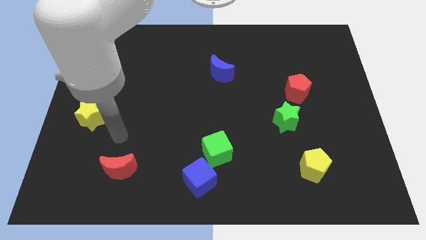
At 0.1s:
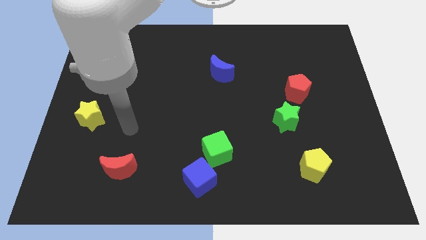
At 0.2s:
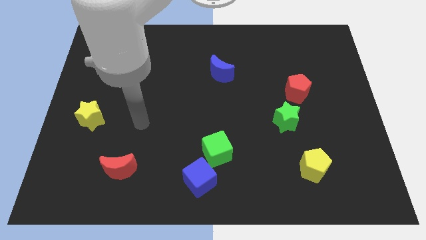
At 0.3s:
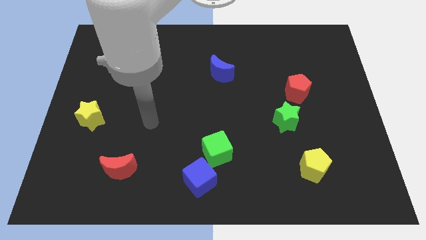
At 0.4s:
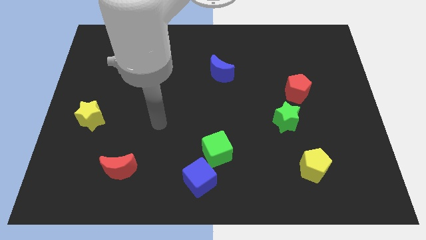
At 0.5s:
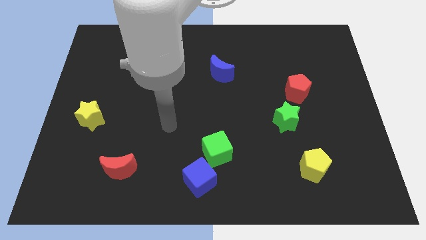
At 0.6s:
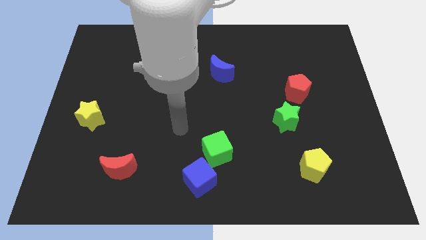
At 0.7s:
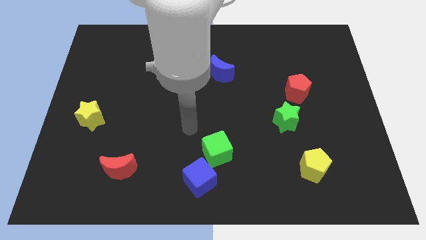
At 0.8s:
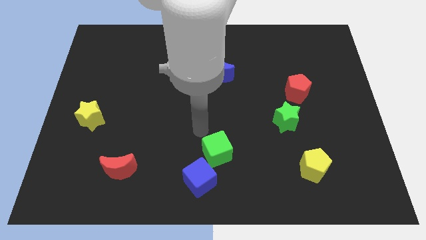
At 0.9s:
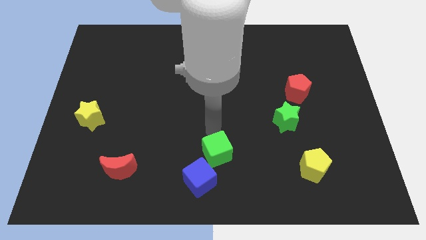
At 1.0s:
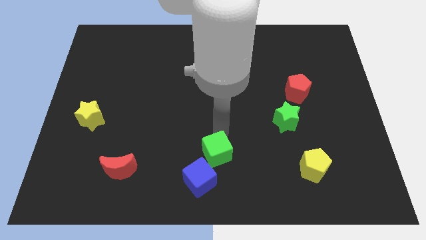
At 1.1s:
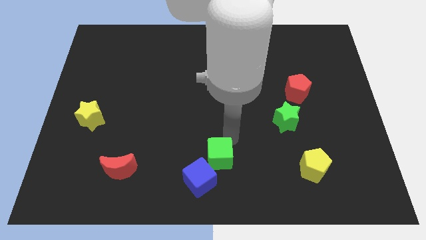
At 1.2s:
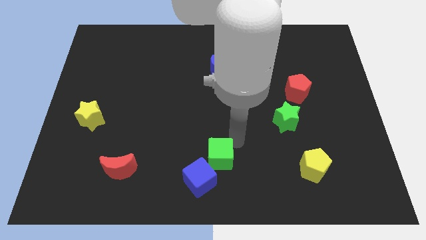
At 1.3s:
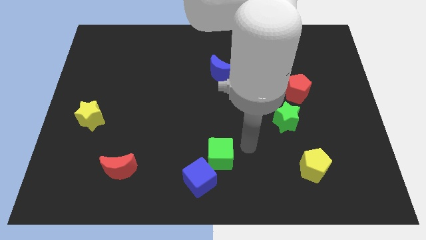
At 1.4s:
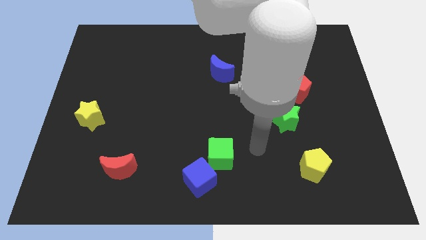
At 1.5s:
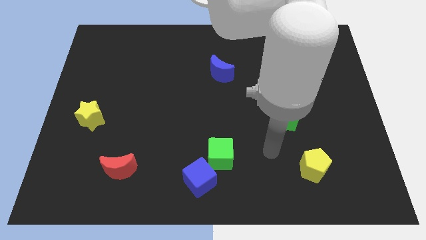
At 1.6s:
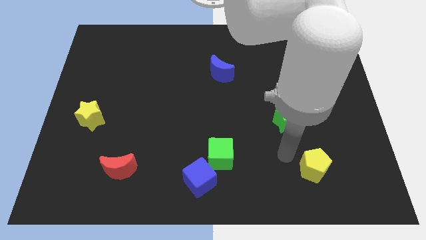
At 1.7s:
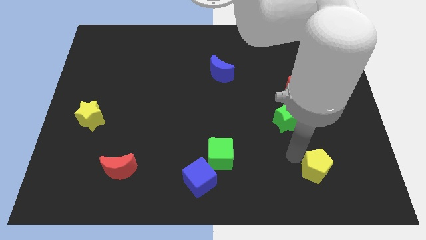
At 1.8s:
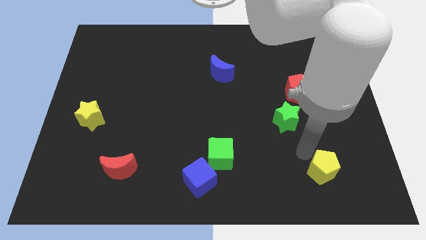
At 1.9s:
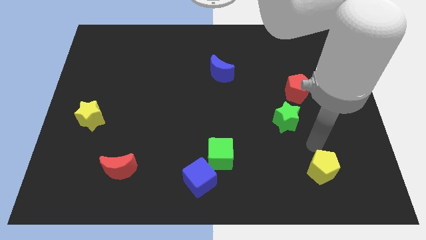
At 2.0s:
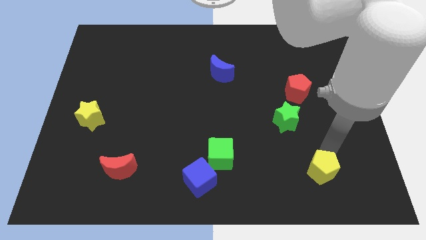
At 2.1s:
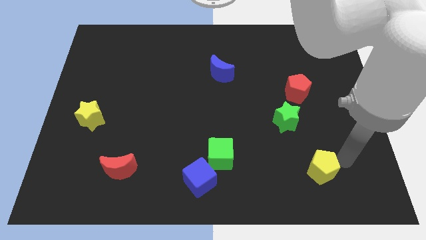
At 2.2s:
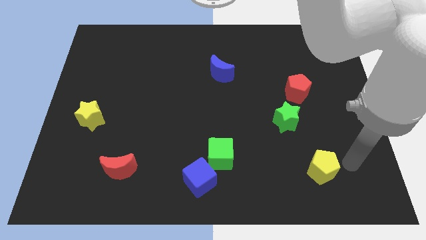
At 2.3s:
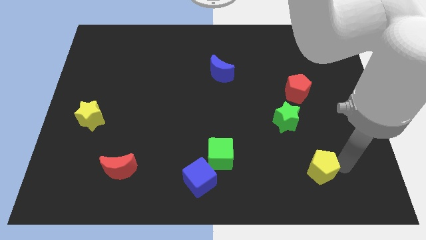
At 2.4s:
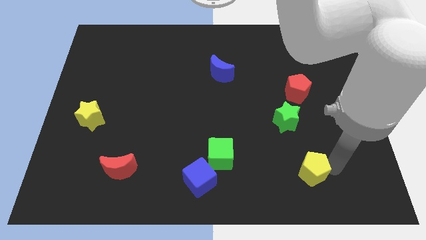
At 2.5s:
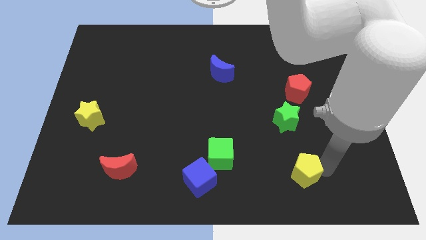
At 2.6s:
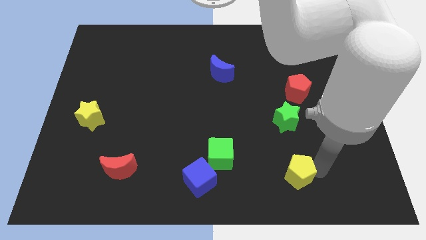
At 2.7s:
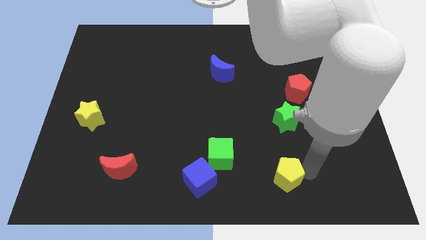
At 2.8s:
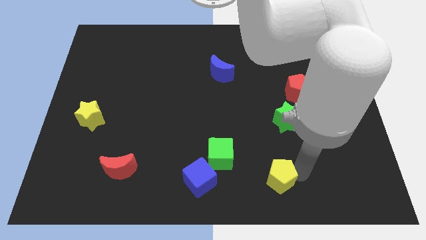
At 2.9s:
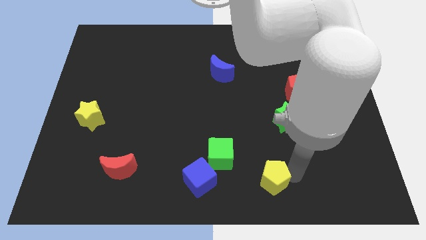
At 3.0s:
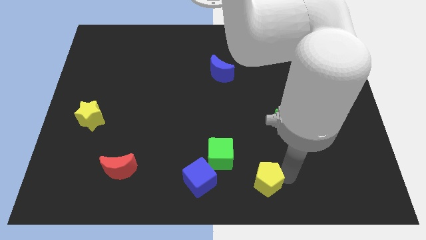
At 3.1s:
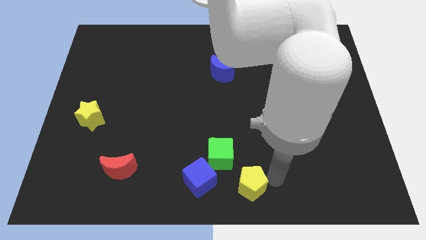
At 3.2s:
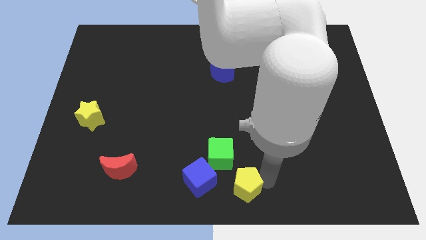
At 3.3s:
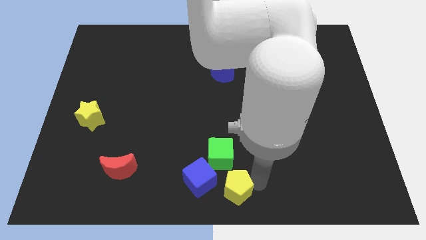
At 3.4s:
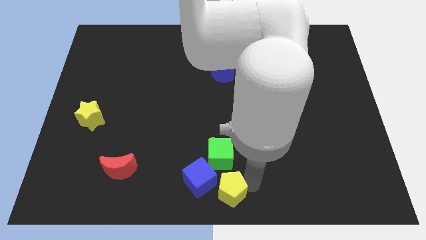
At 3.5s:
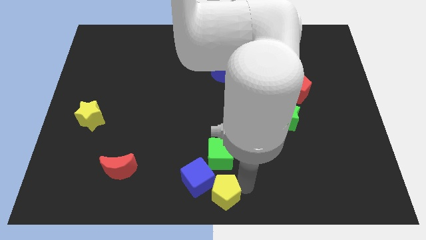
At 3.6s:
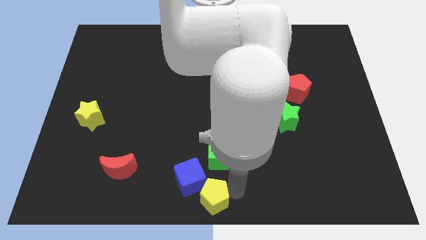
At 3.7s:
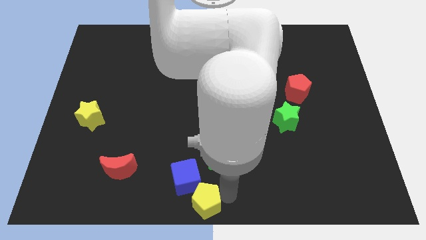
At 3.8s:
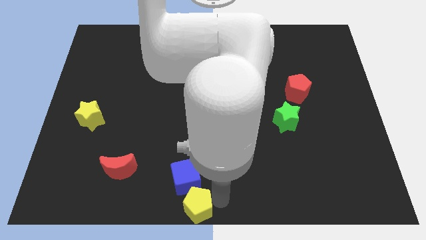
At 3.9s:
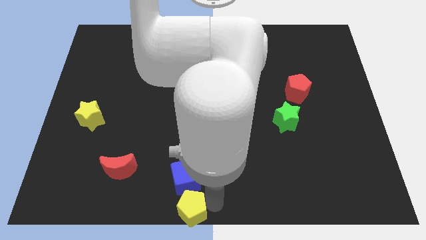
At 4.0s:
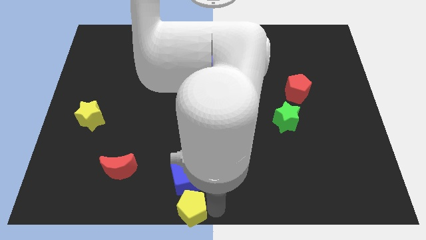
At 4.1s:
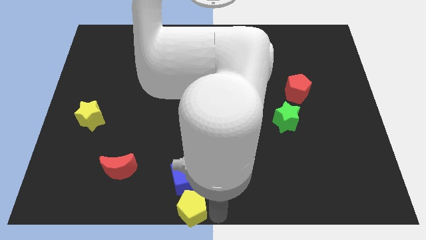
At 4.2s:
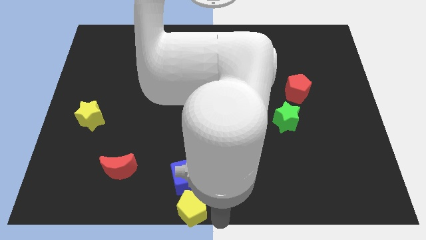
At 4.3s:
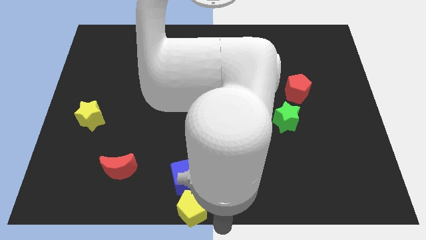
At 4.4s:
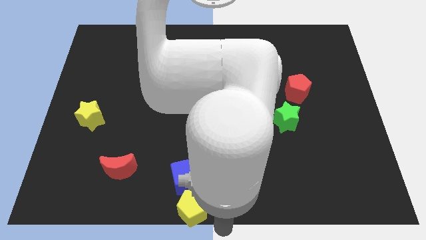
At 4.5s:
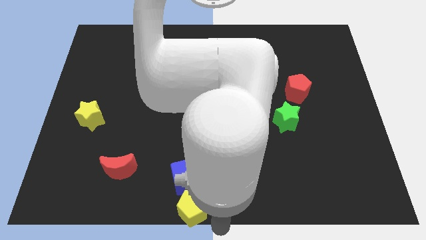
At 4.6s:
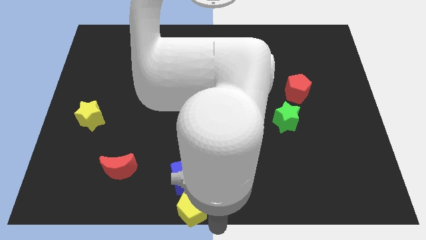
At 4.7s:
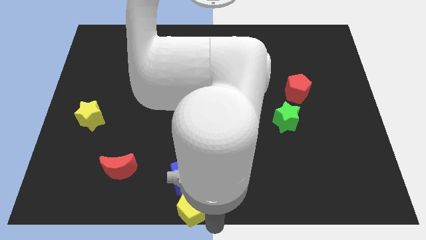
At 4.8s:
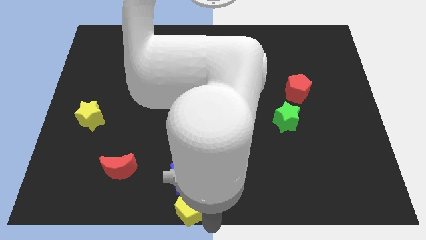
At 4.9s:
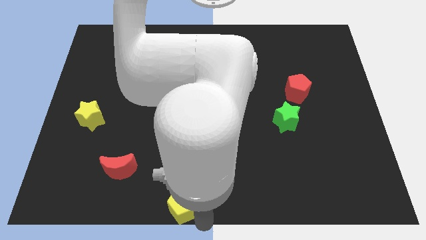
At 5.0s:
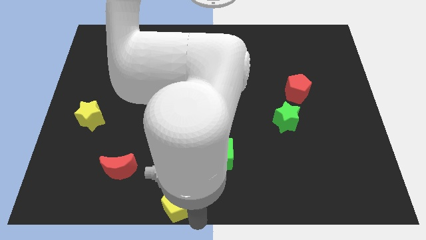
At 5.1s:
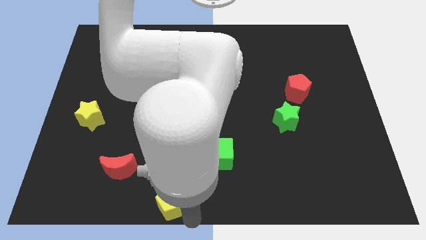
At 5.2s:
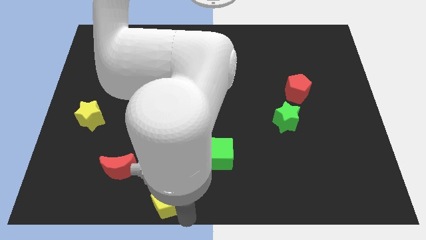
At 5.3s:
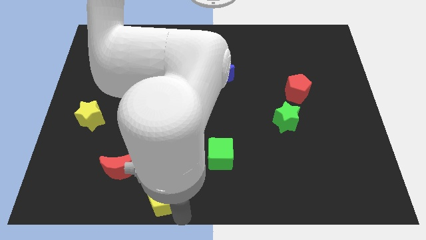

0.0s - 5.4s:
slide the yellow pentagon left of the blue cube

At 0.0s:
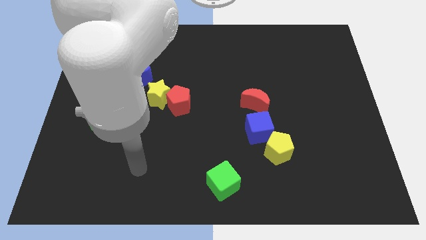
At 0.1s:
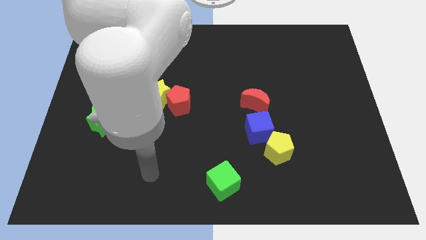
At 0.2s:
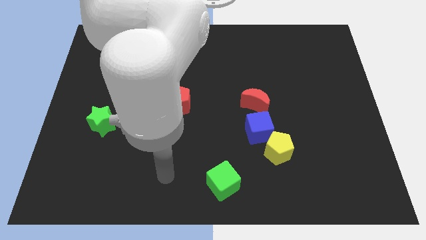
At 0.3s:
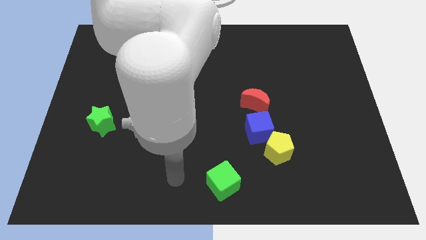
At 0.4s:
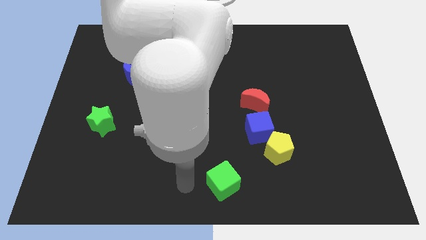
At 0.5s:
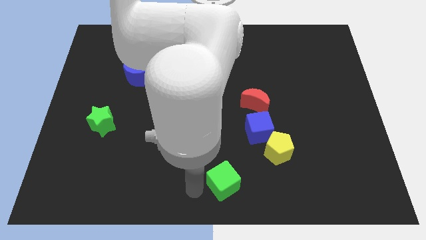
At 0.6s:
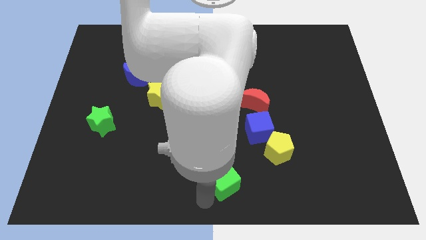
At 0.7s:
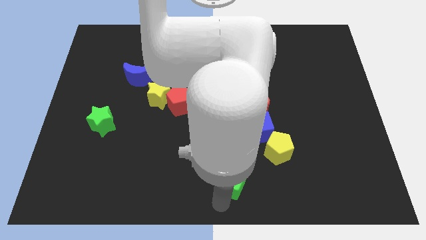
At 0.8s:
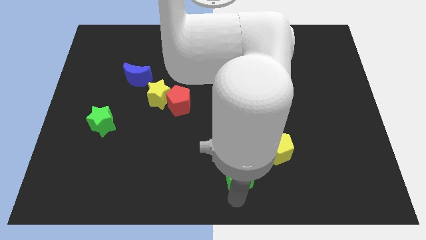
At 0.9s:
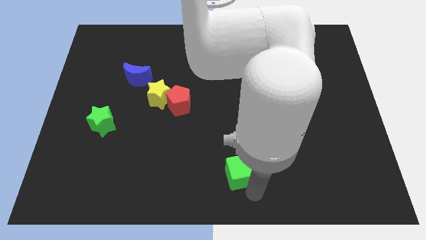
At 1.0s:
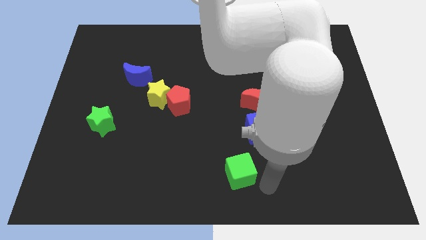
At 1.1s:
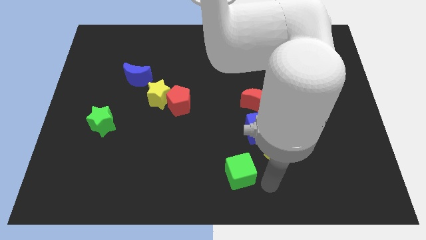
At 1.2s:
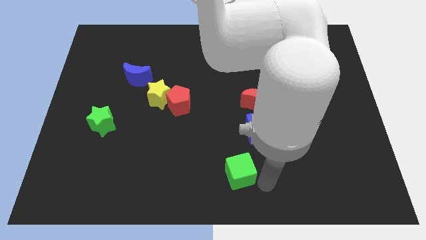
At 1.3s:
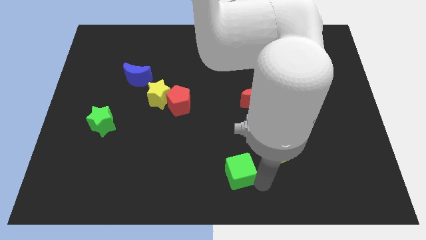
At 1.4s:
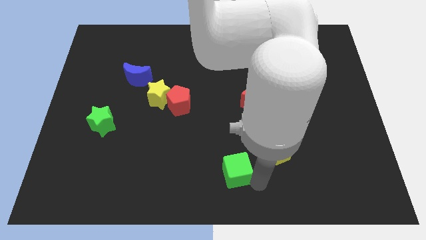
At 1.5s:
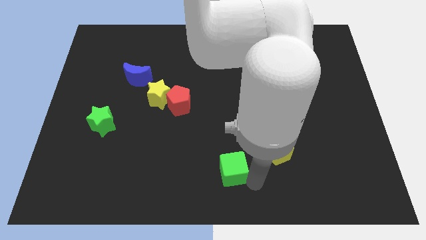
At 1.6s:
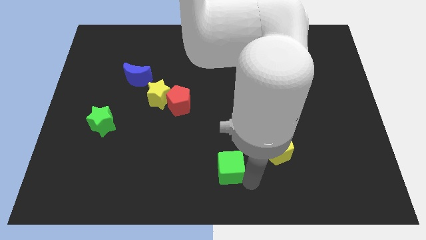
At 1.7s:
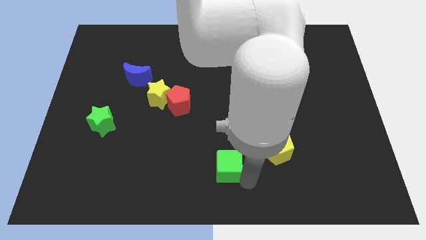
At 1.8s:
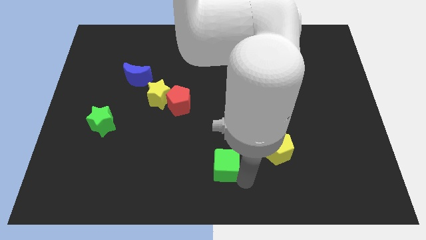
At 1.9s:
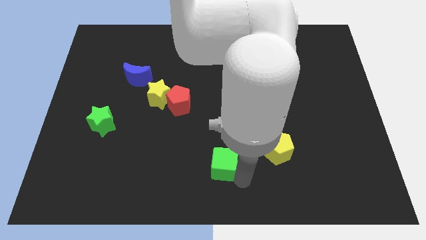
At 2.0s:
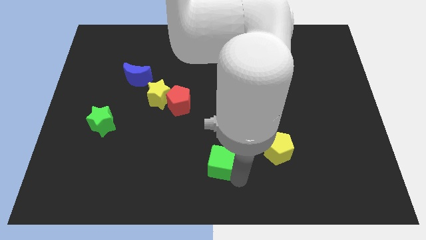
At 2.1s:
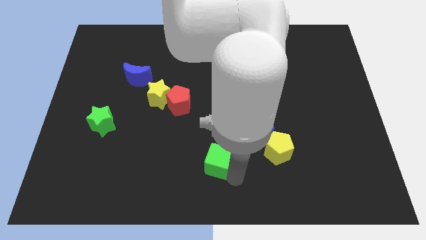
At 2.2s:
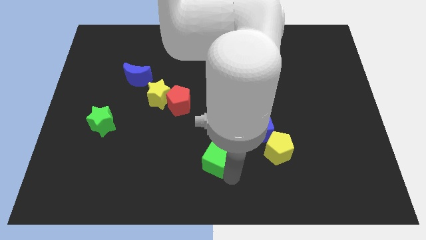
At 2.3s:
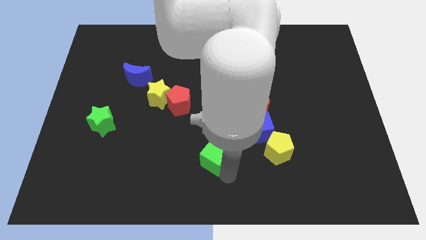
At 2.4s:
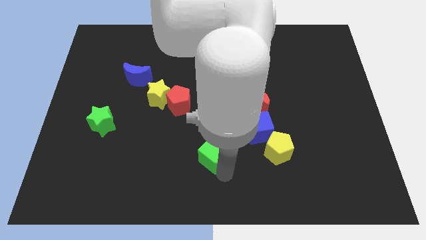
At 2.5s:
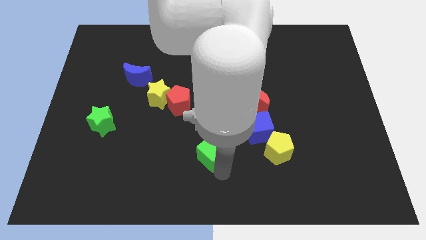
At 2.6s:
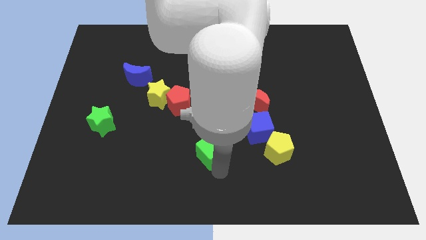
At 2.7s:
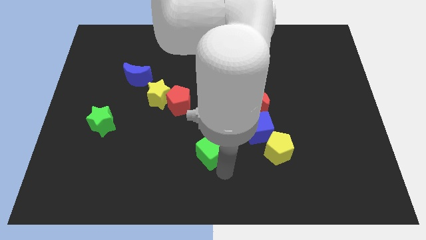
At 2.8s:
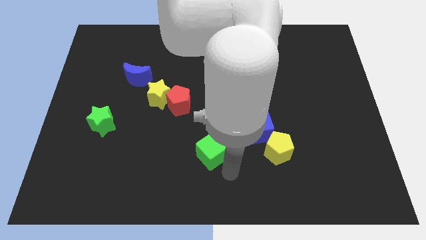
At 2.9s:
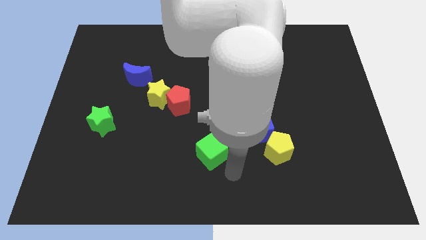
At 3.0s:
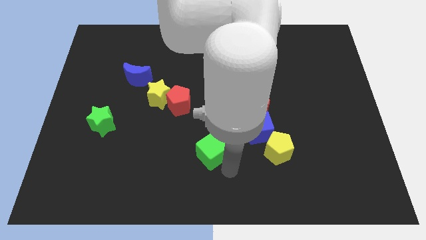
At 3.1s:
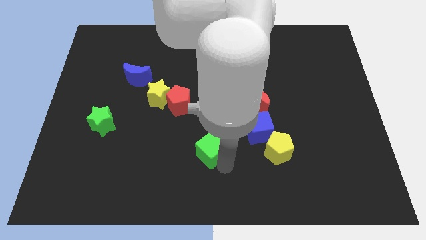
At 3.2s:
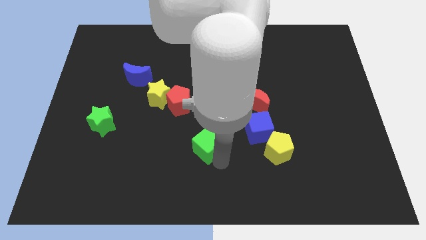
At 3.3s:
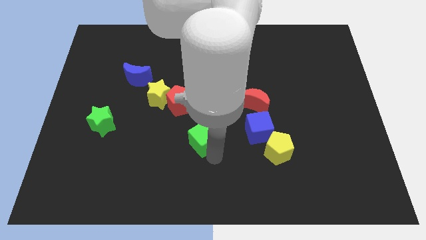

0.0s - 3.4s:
move the green cube diagonally down and to the right of the red pentagon
